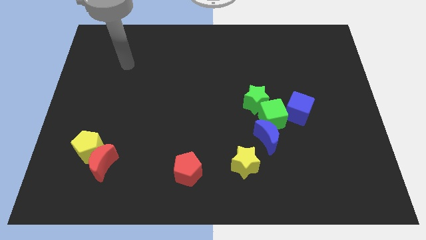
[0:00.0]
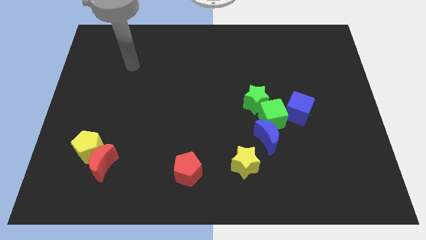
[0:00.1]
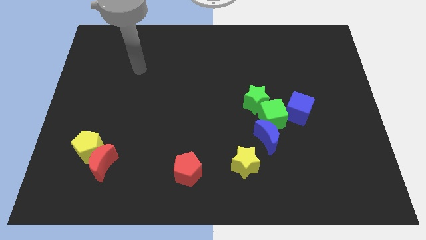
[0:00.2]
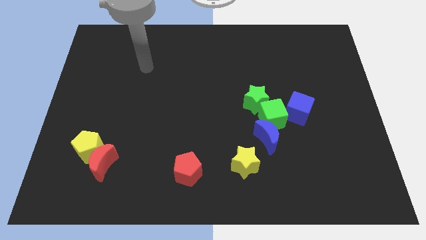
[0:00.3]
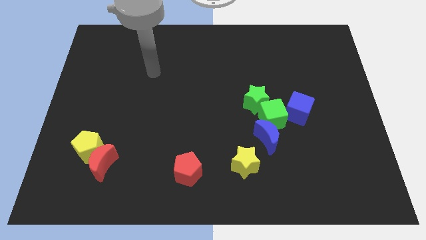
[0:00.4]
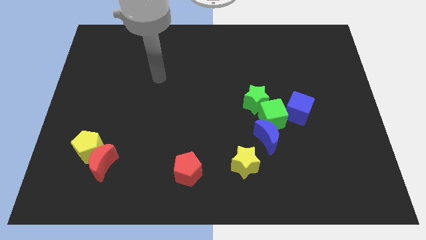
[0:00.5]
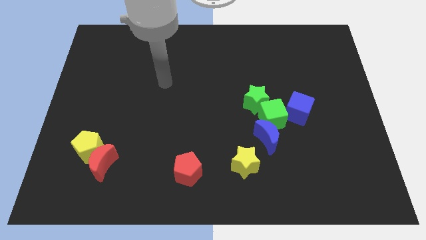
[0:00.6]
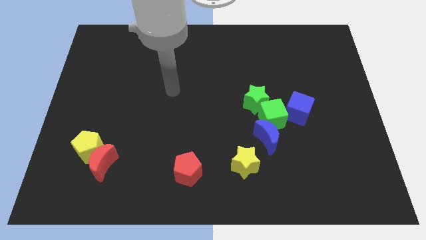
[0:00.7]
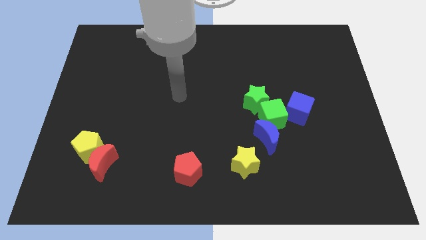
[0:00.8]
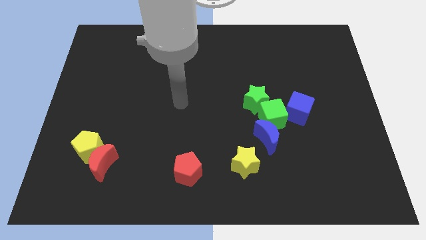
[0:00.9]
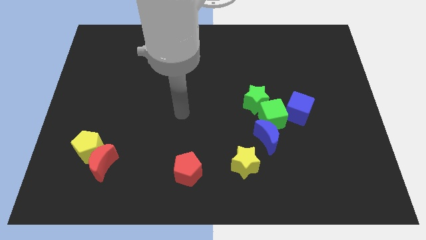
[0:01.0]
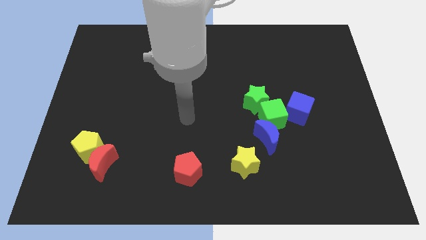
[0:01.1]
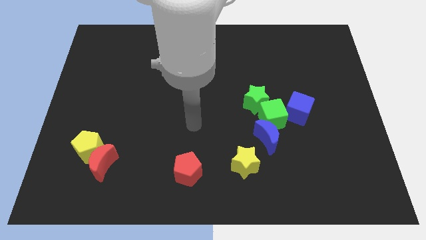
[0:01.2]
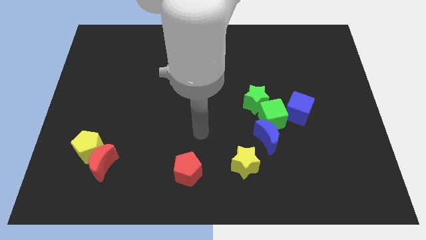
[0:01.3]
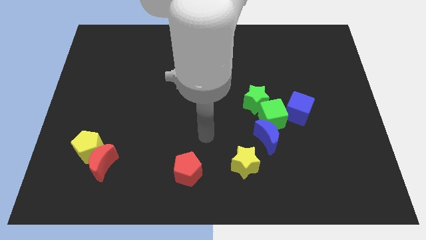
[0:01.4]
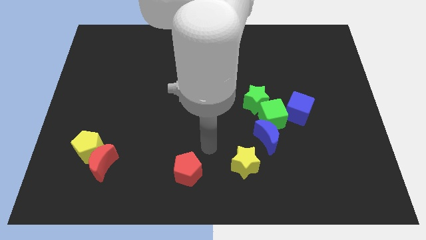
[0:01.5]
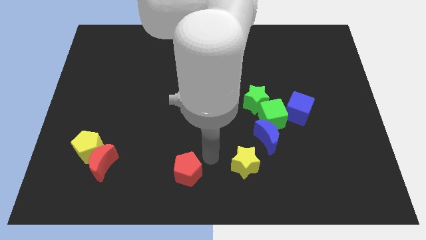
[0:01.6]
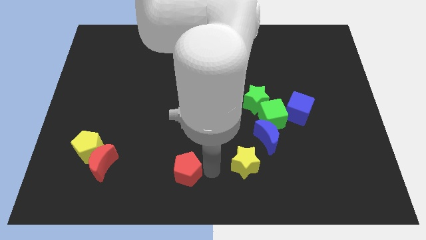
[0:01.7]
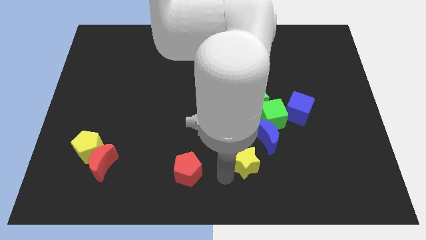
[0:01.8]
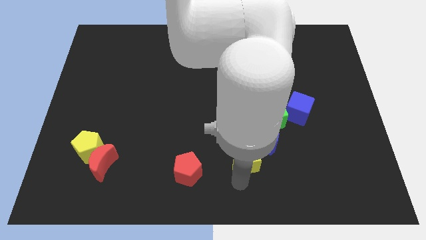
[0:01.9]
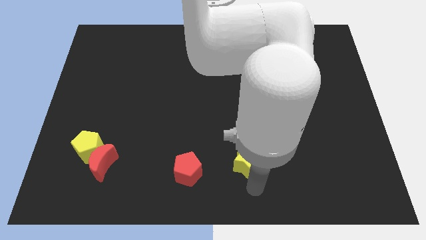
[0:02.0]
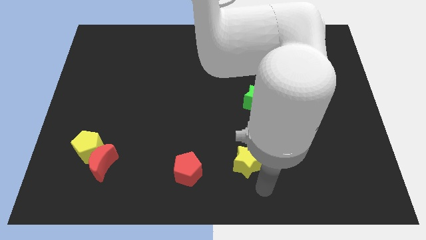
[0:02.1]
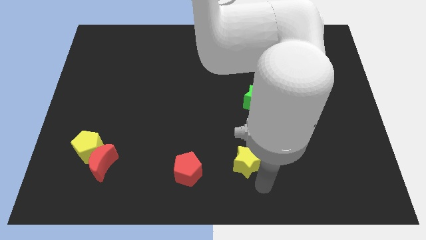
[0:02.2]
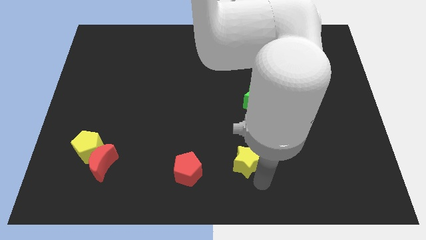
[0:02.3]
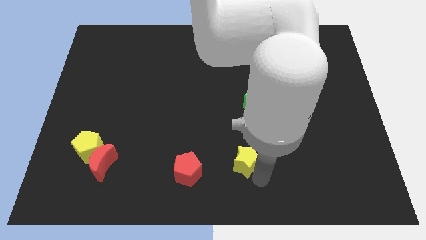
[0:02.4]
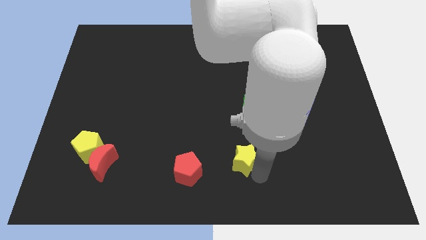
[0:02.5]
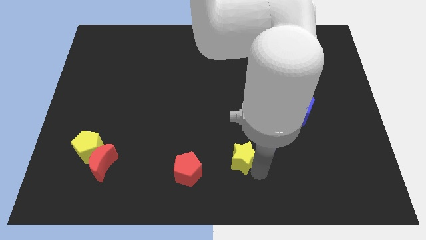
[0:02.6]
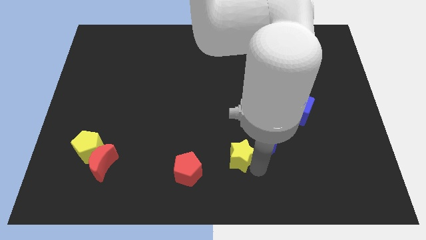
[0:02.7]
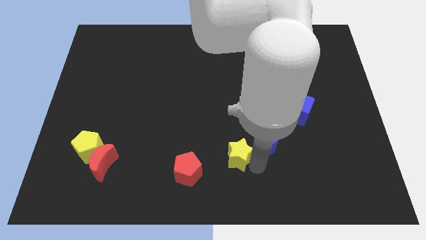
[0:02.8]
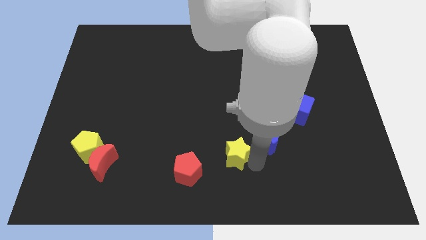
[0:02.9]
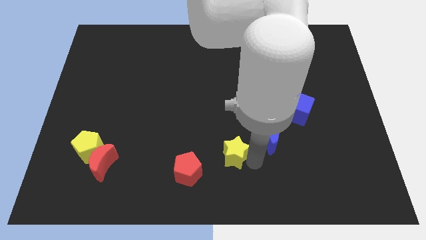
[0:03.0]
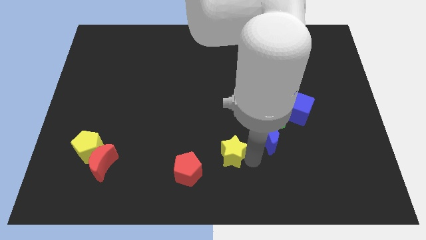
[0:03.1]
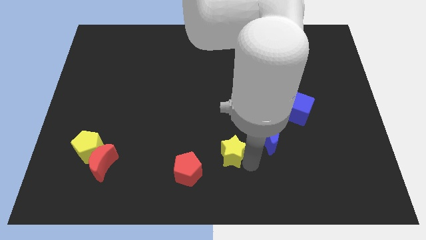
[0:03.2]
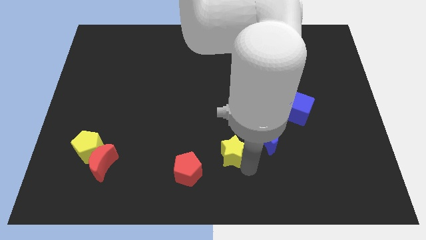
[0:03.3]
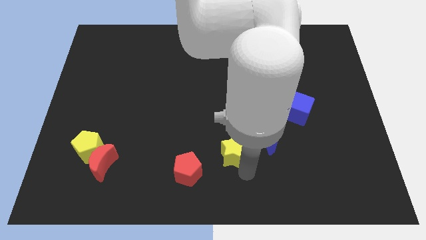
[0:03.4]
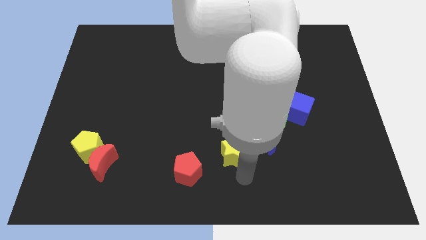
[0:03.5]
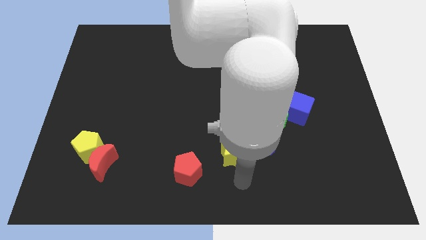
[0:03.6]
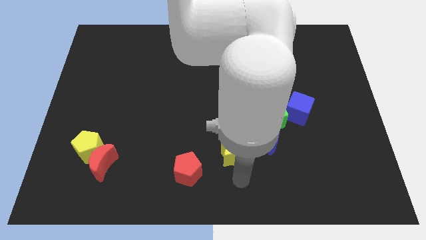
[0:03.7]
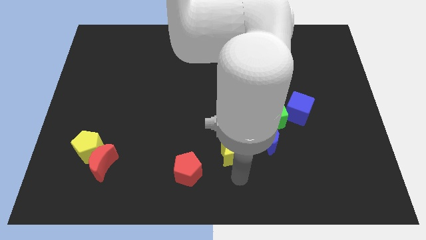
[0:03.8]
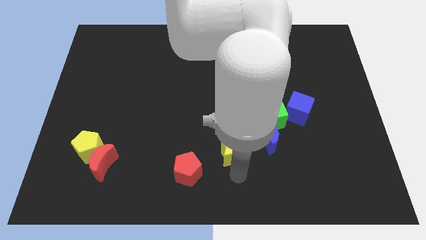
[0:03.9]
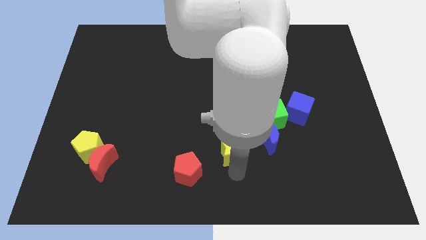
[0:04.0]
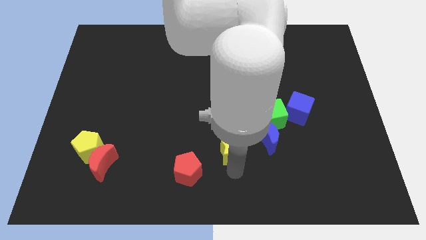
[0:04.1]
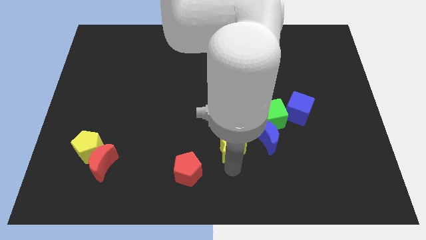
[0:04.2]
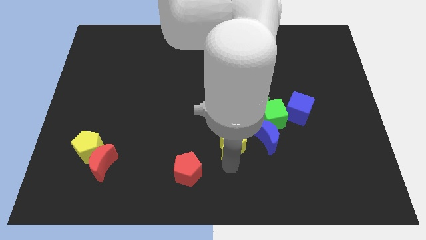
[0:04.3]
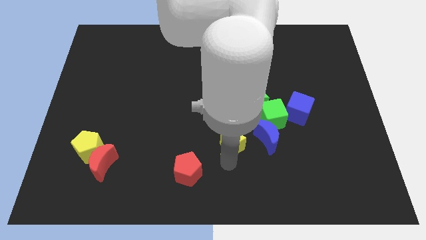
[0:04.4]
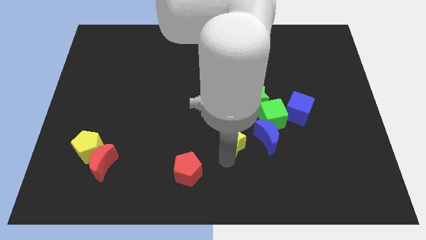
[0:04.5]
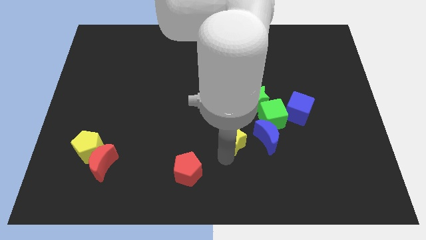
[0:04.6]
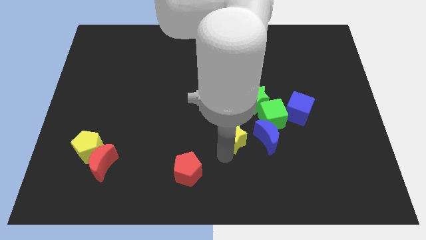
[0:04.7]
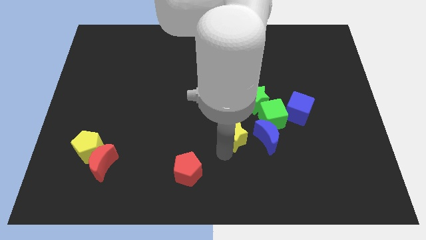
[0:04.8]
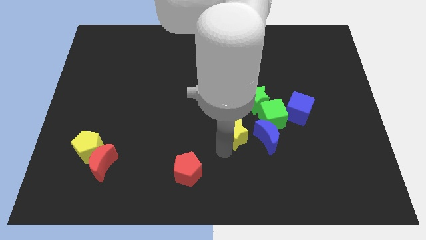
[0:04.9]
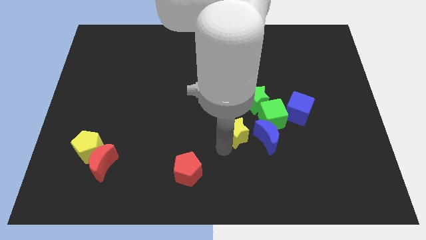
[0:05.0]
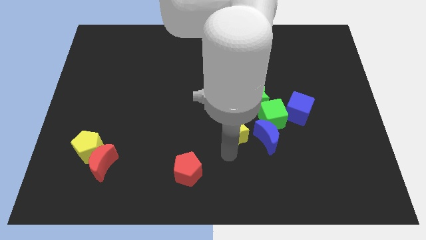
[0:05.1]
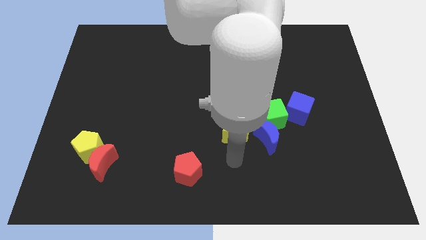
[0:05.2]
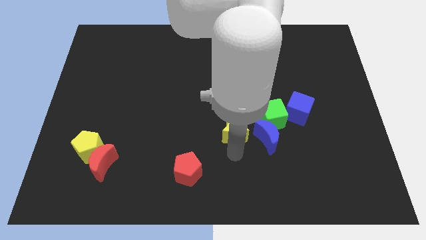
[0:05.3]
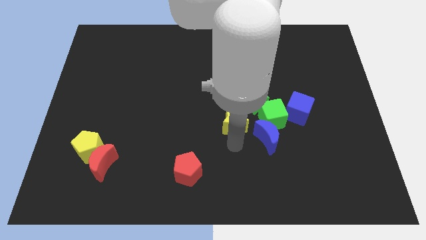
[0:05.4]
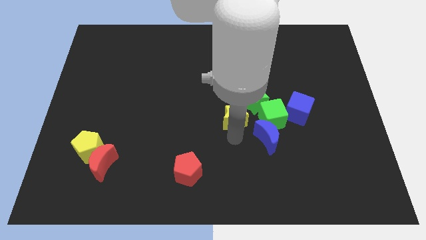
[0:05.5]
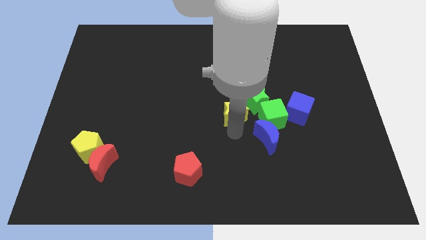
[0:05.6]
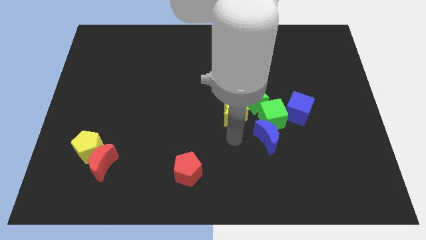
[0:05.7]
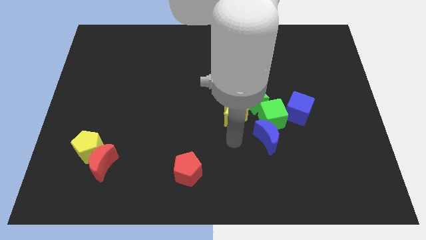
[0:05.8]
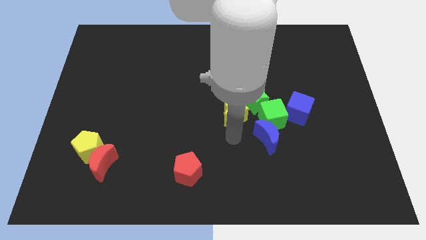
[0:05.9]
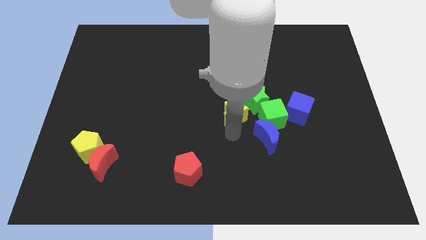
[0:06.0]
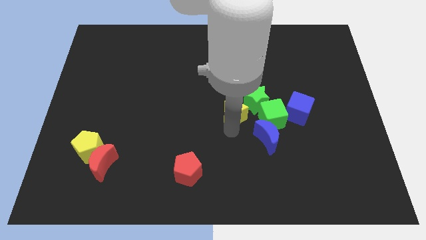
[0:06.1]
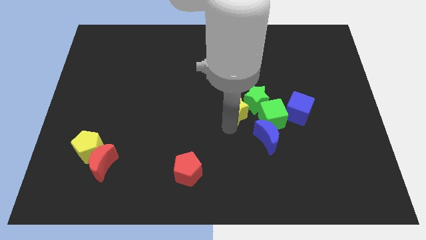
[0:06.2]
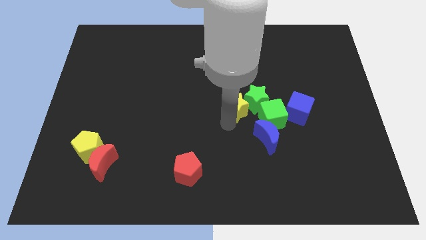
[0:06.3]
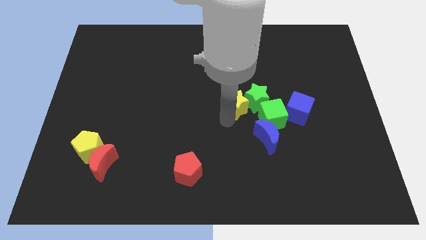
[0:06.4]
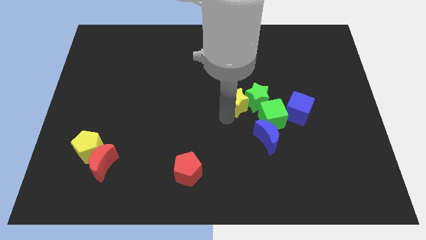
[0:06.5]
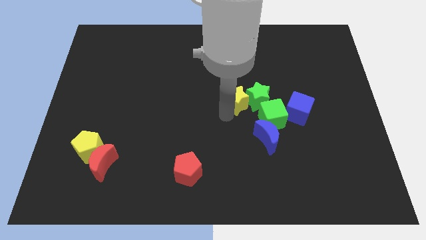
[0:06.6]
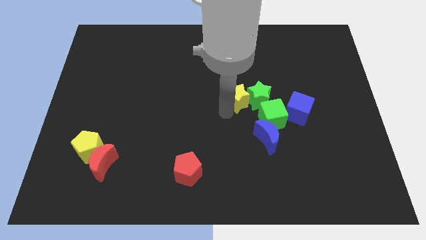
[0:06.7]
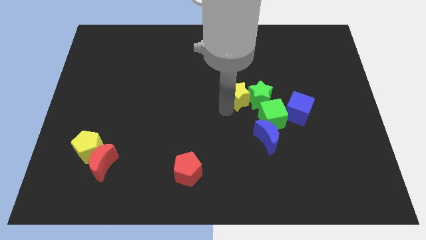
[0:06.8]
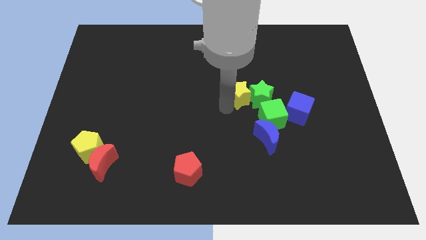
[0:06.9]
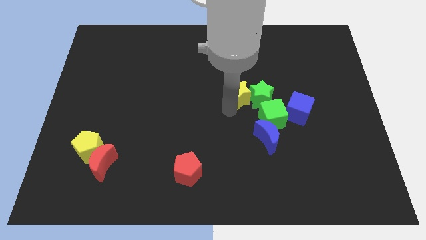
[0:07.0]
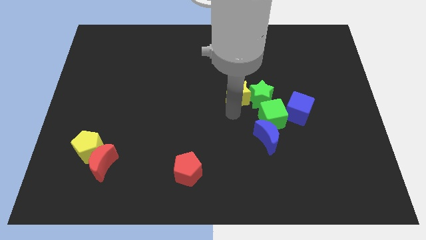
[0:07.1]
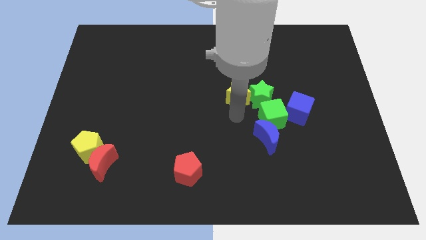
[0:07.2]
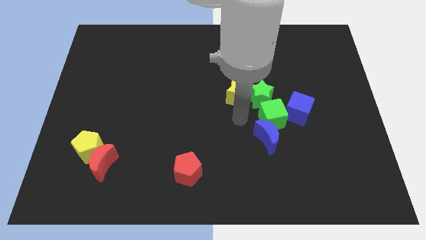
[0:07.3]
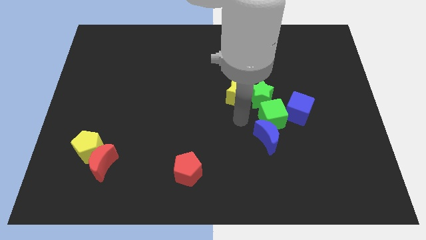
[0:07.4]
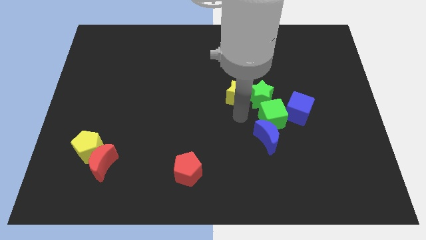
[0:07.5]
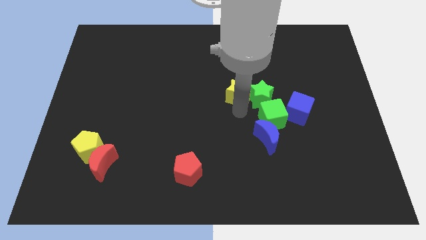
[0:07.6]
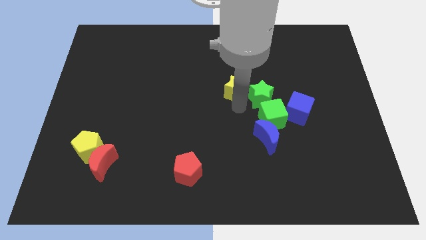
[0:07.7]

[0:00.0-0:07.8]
push the yellow star up

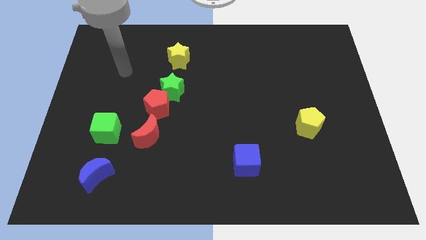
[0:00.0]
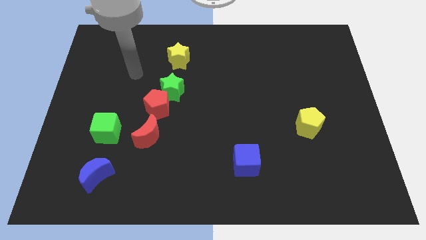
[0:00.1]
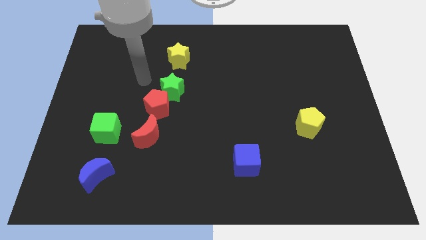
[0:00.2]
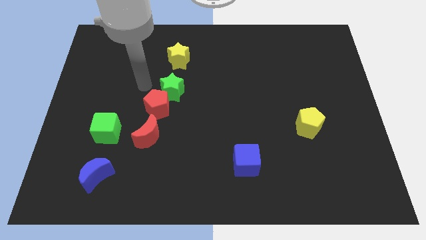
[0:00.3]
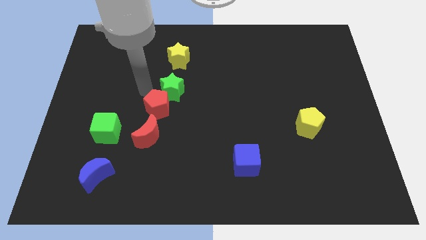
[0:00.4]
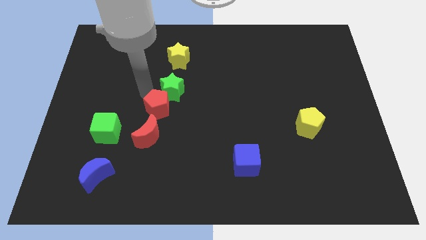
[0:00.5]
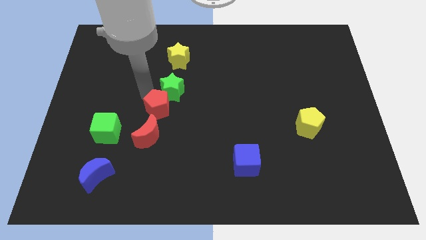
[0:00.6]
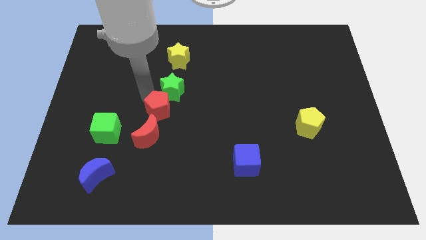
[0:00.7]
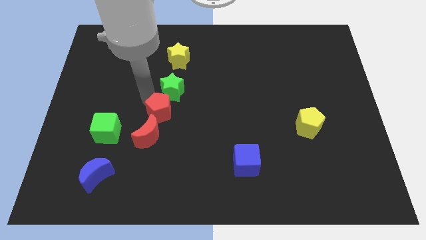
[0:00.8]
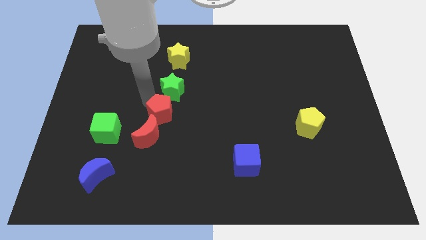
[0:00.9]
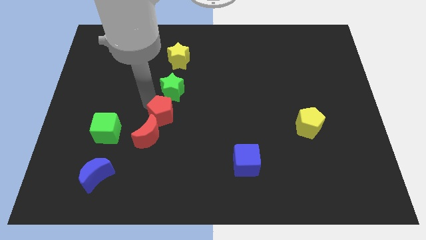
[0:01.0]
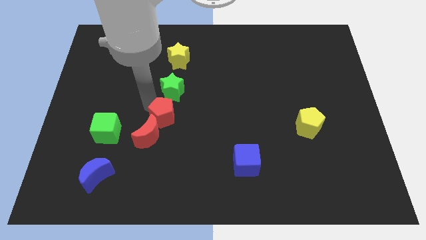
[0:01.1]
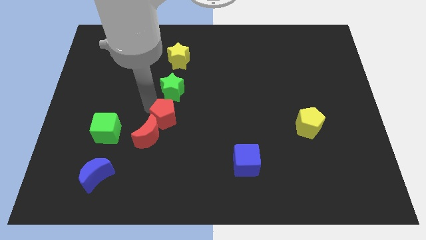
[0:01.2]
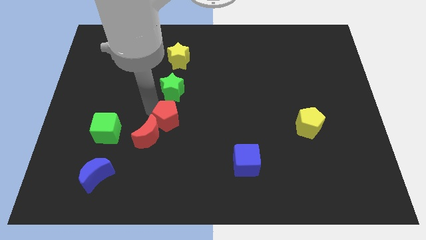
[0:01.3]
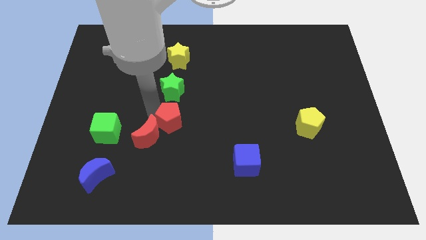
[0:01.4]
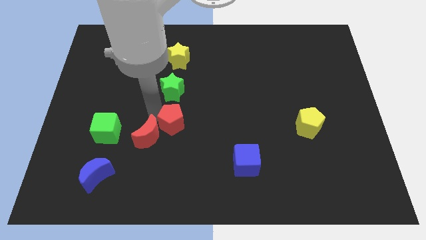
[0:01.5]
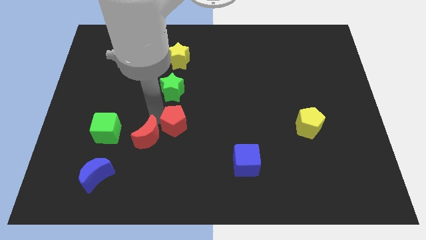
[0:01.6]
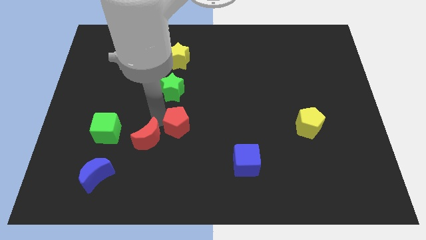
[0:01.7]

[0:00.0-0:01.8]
push the red pentagon a little downwards and to the right
